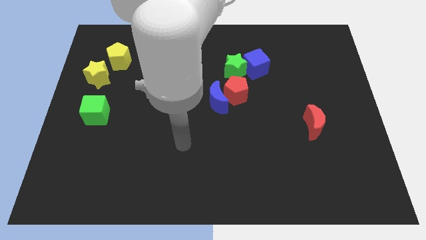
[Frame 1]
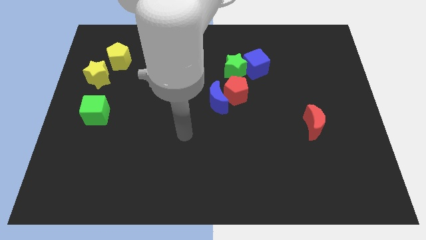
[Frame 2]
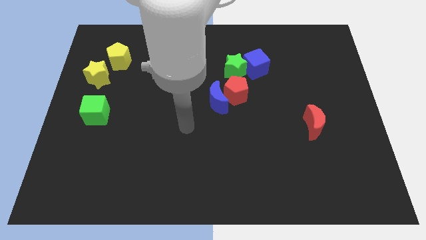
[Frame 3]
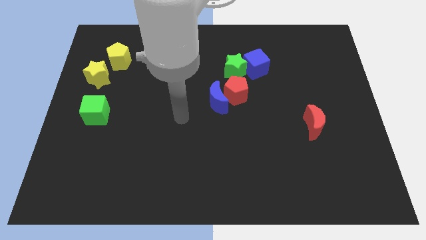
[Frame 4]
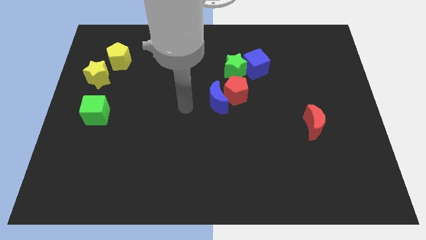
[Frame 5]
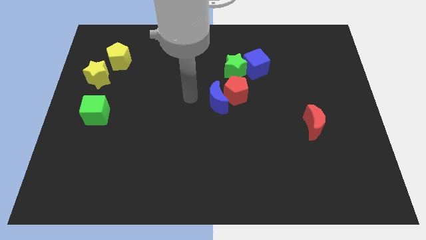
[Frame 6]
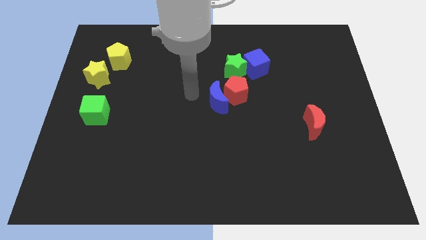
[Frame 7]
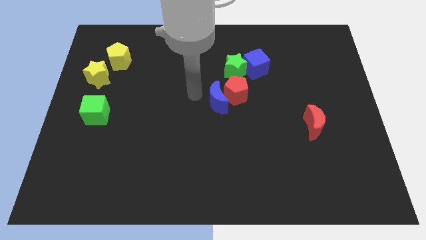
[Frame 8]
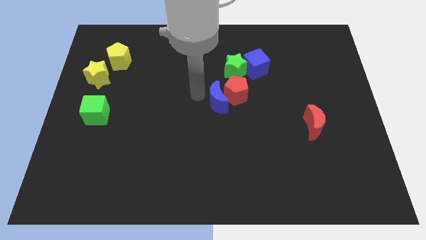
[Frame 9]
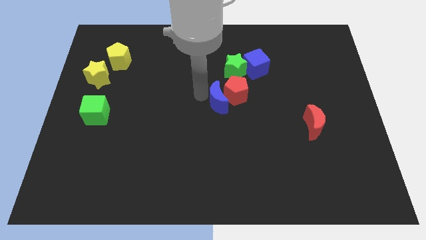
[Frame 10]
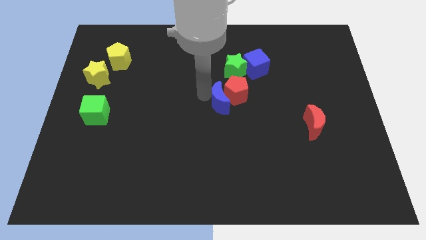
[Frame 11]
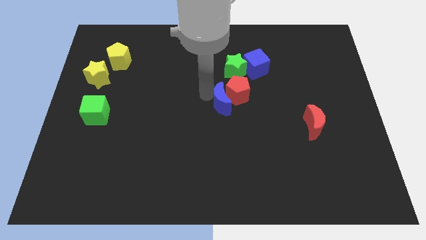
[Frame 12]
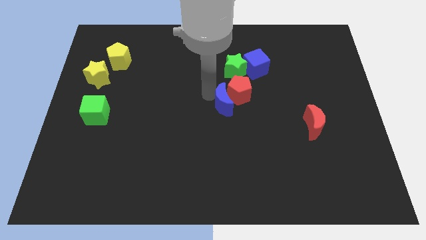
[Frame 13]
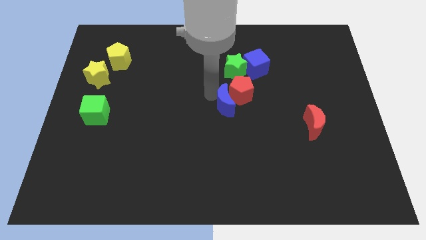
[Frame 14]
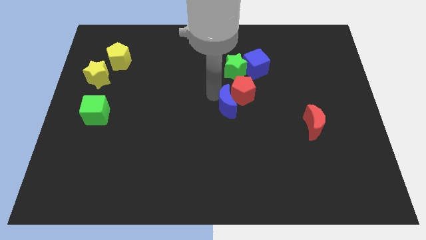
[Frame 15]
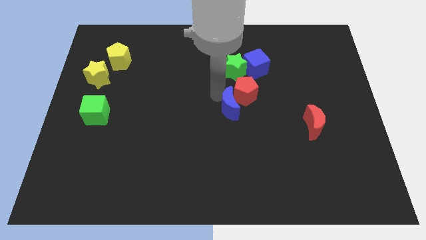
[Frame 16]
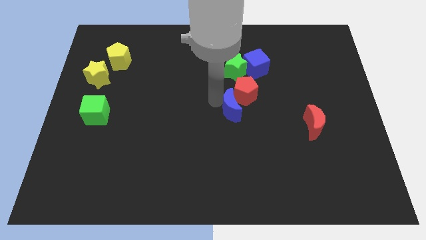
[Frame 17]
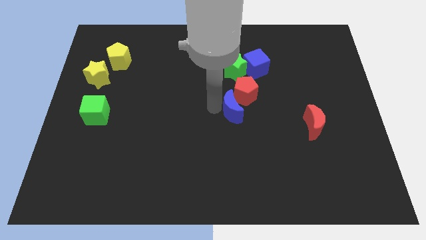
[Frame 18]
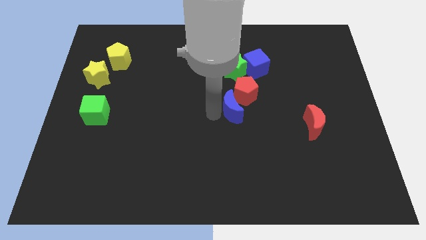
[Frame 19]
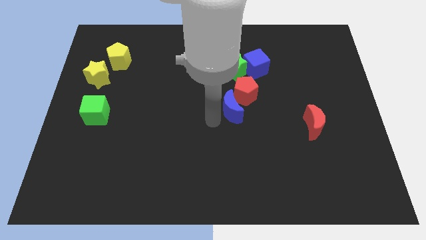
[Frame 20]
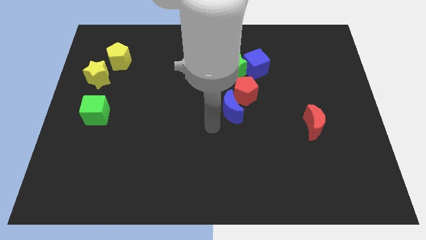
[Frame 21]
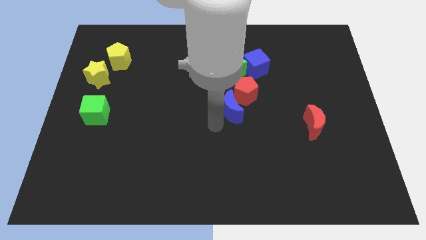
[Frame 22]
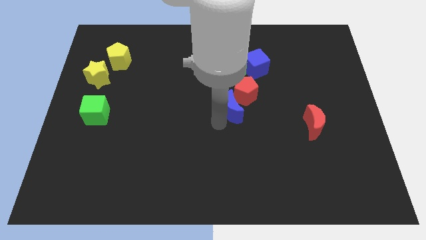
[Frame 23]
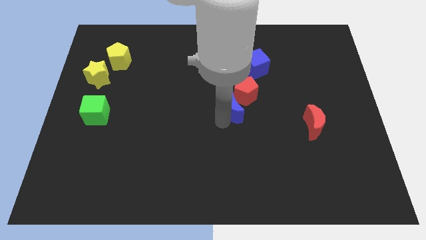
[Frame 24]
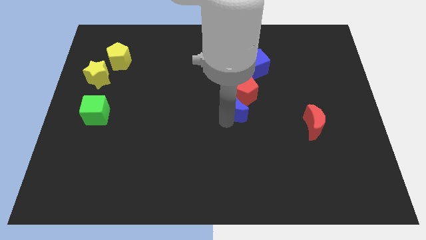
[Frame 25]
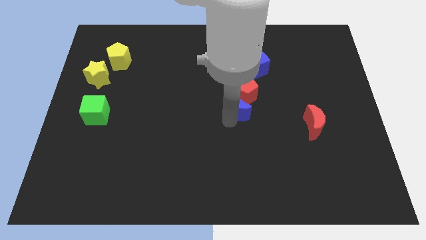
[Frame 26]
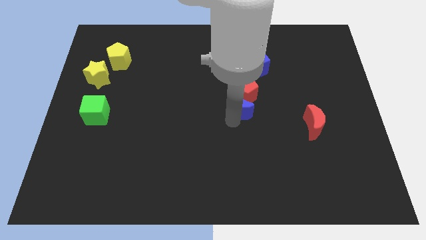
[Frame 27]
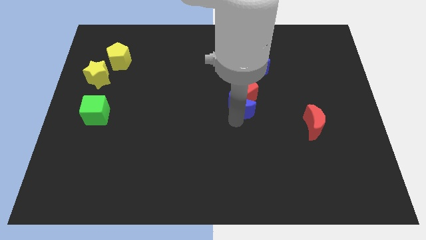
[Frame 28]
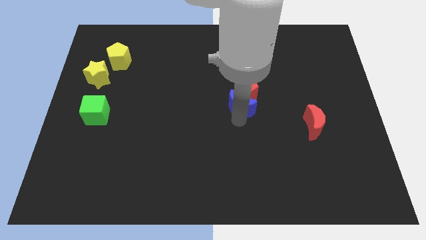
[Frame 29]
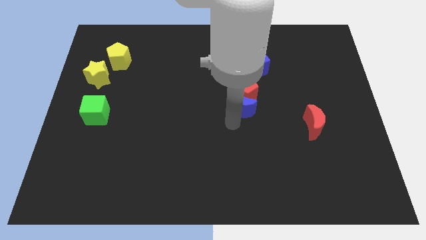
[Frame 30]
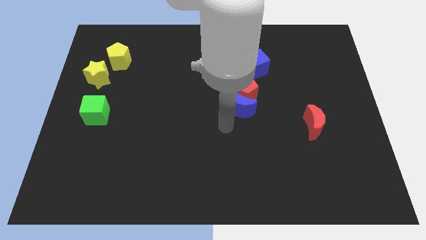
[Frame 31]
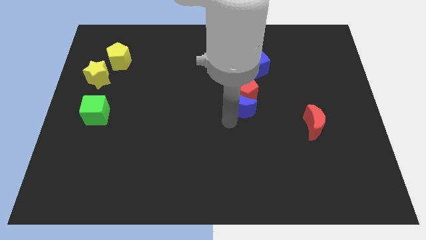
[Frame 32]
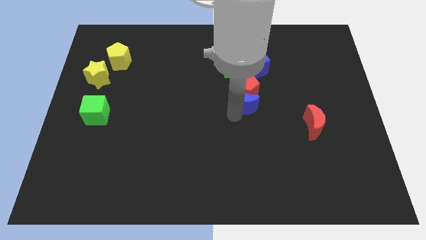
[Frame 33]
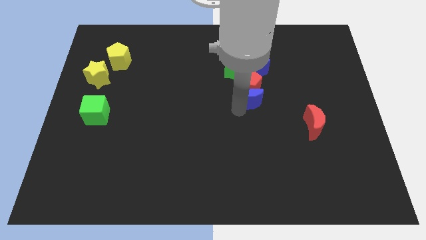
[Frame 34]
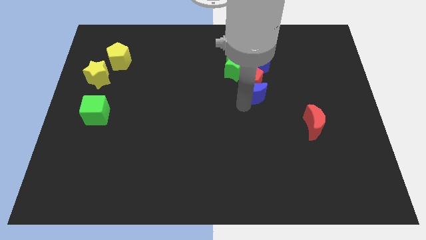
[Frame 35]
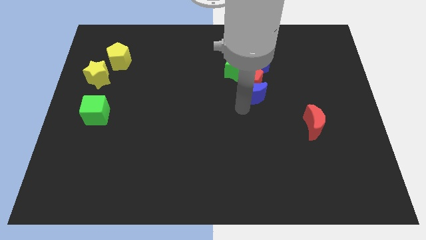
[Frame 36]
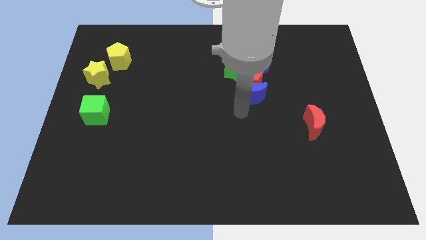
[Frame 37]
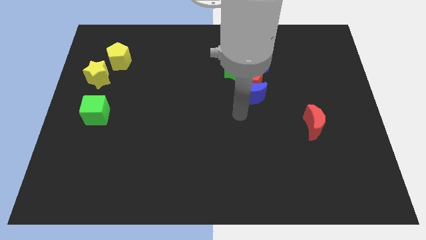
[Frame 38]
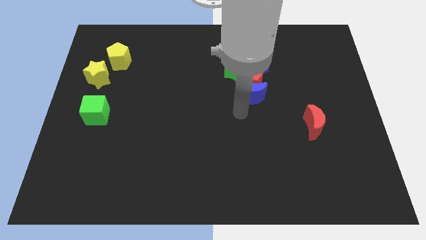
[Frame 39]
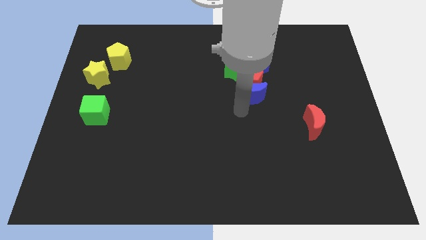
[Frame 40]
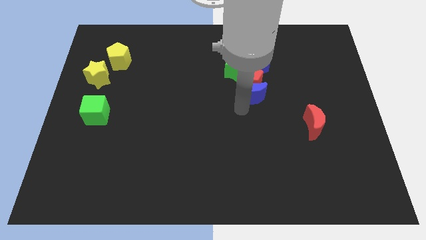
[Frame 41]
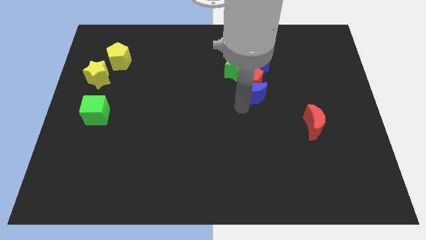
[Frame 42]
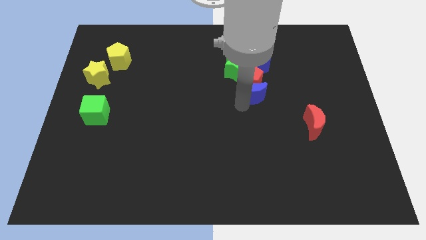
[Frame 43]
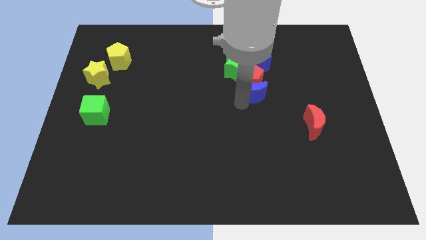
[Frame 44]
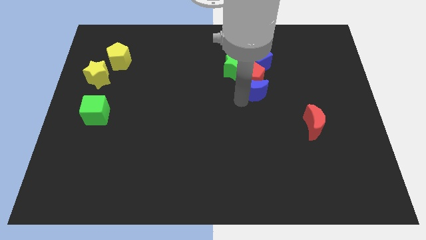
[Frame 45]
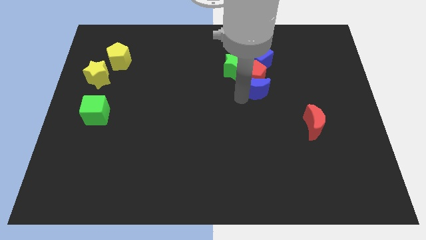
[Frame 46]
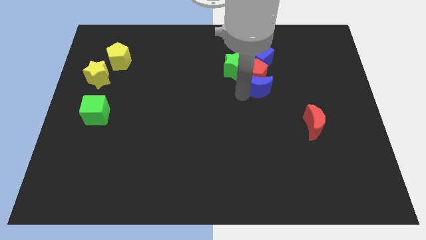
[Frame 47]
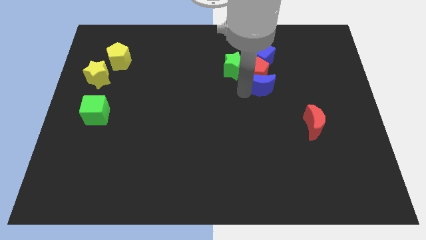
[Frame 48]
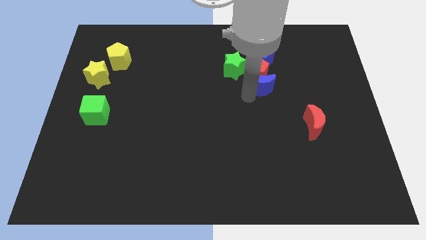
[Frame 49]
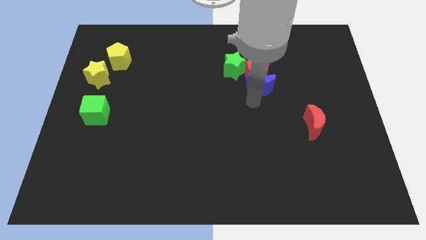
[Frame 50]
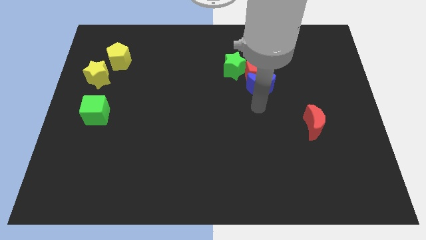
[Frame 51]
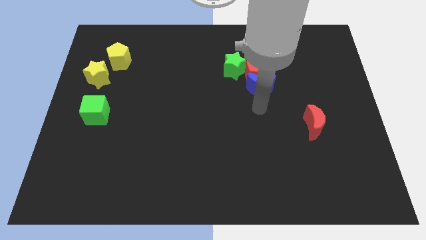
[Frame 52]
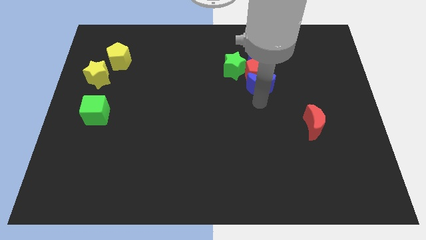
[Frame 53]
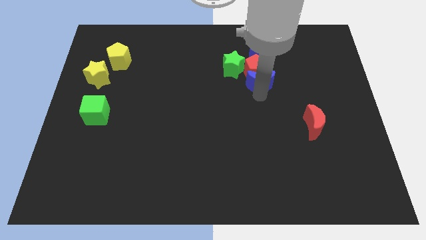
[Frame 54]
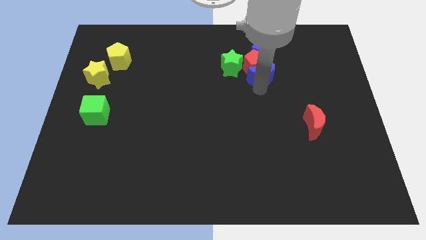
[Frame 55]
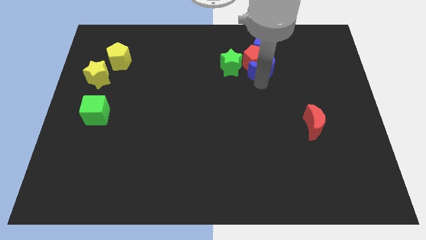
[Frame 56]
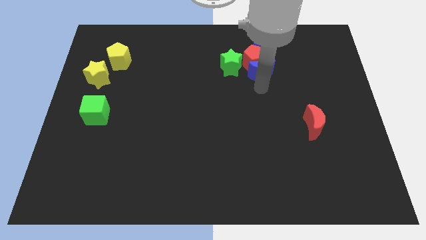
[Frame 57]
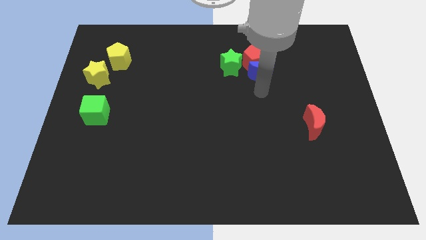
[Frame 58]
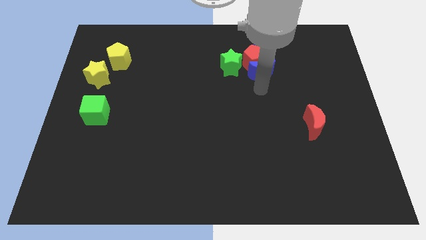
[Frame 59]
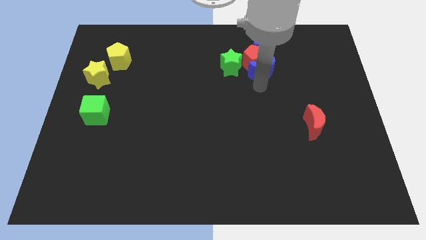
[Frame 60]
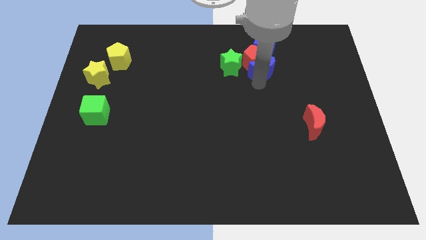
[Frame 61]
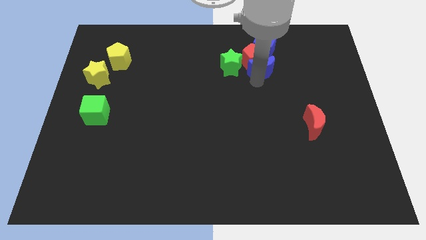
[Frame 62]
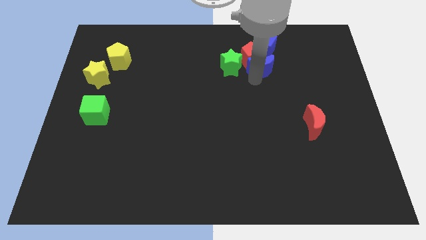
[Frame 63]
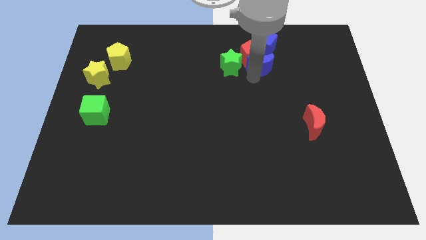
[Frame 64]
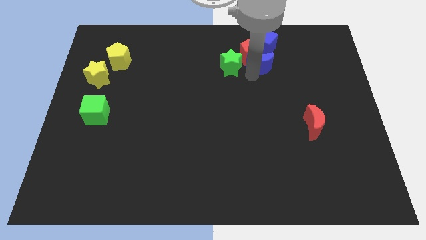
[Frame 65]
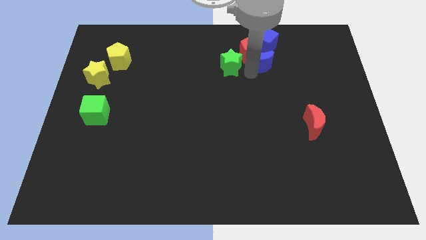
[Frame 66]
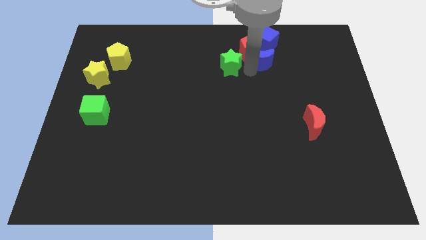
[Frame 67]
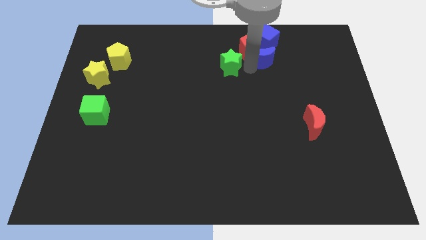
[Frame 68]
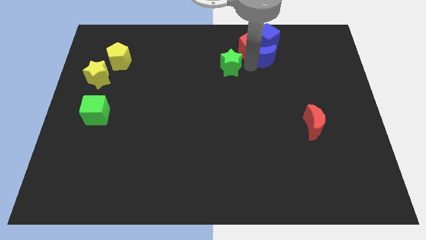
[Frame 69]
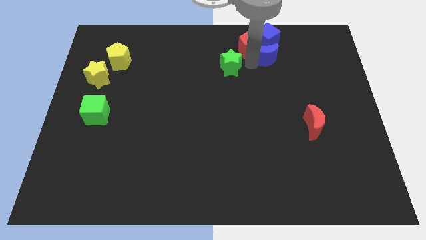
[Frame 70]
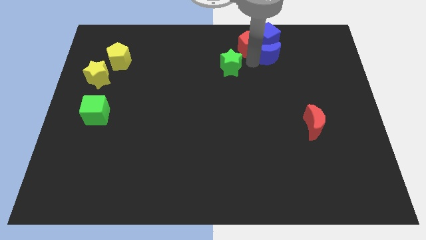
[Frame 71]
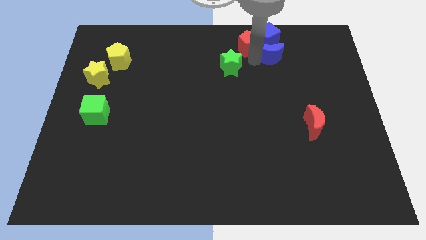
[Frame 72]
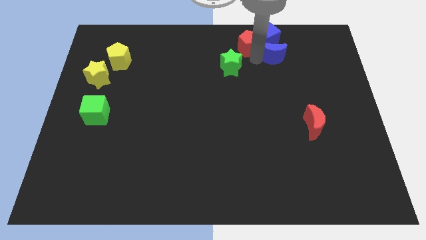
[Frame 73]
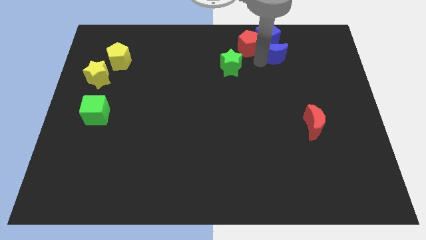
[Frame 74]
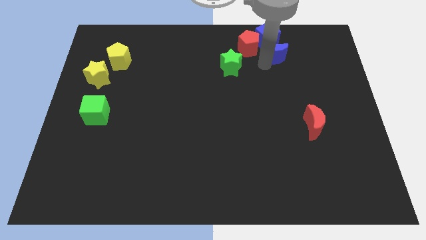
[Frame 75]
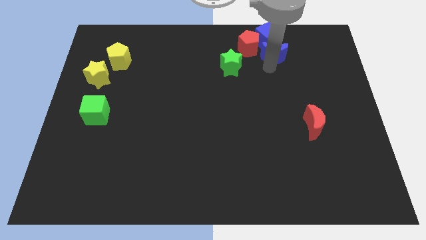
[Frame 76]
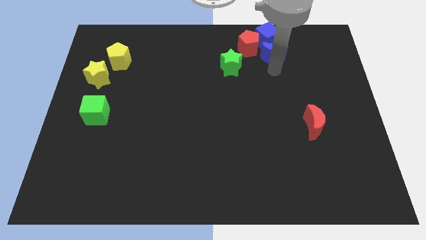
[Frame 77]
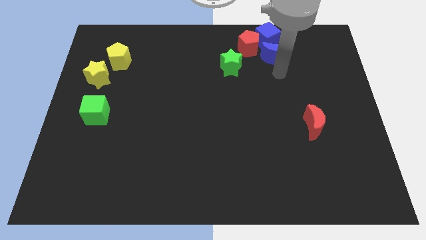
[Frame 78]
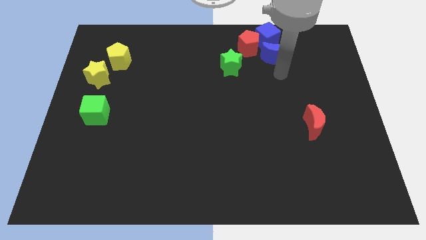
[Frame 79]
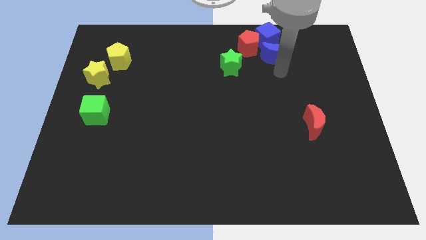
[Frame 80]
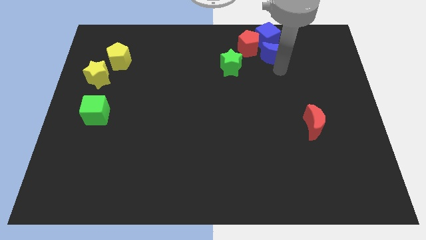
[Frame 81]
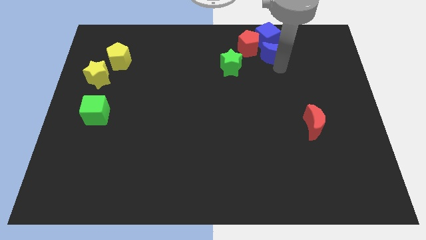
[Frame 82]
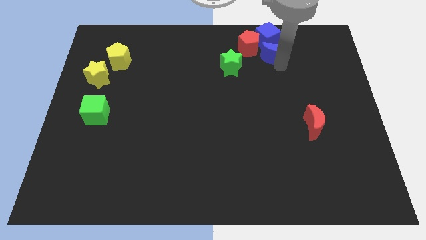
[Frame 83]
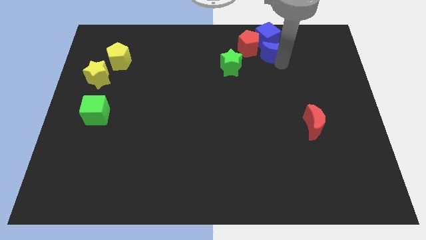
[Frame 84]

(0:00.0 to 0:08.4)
put the blue moon towards the blue cube
